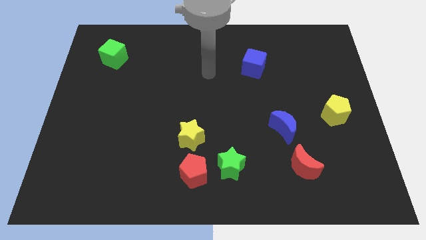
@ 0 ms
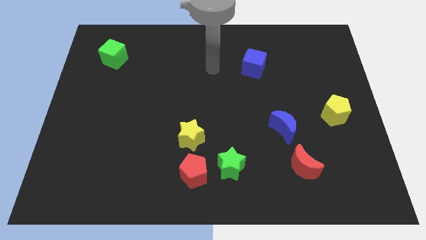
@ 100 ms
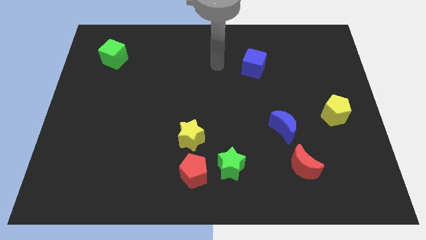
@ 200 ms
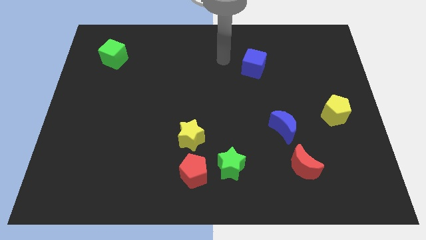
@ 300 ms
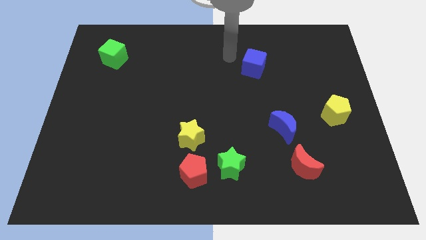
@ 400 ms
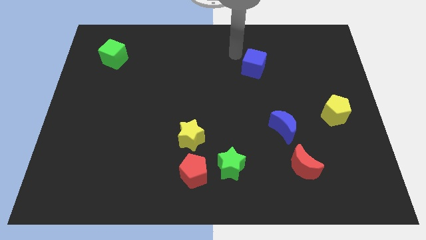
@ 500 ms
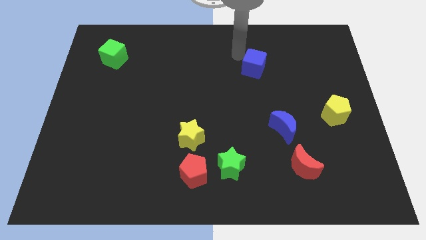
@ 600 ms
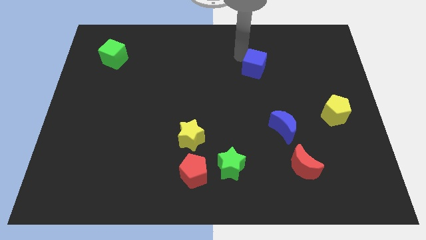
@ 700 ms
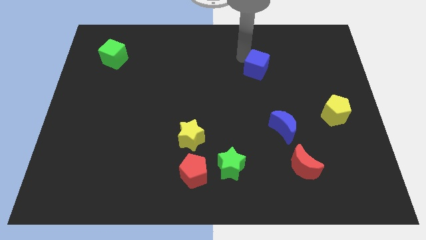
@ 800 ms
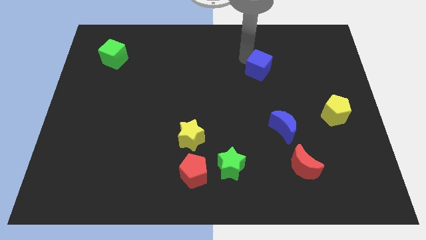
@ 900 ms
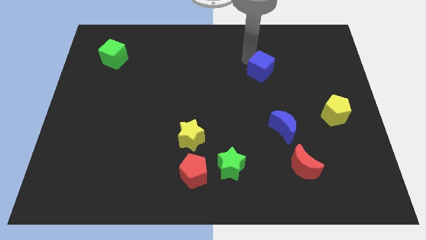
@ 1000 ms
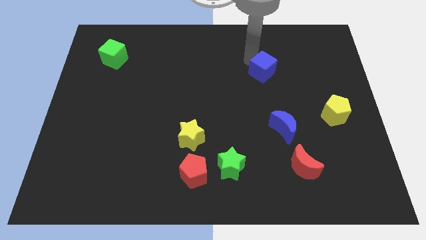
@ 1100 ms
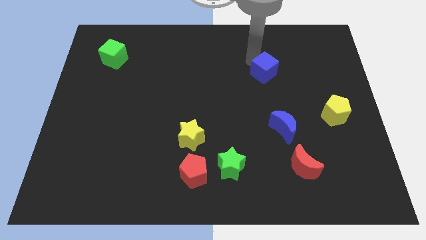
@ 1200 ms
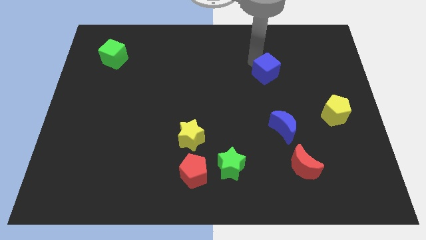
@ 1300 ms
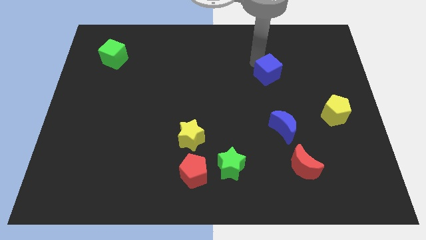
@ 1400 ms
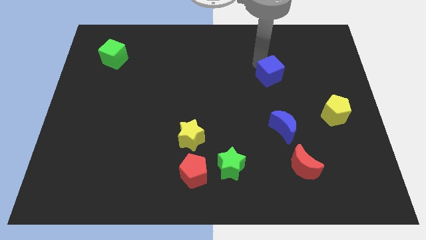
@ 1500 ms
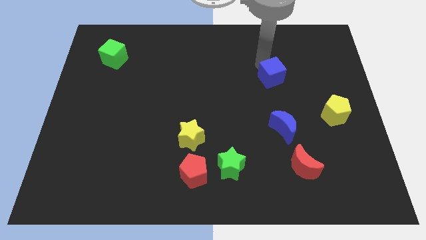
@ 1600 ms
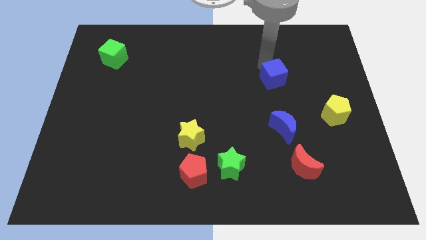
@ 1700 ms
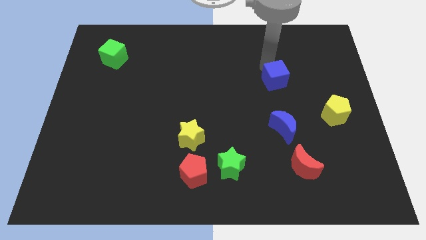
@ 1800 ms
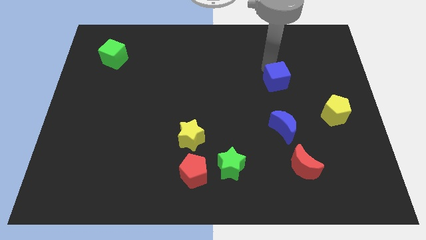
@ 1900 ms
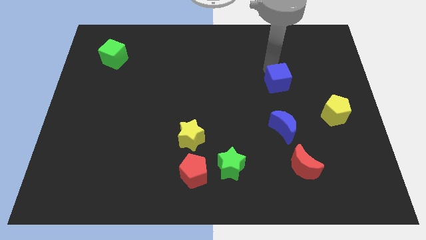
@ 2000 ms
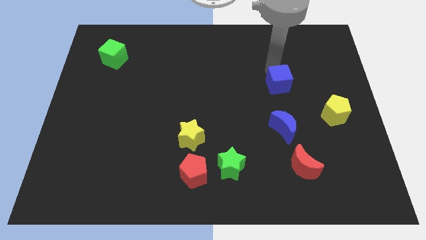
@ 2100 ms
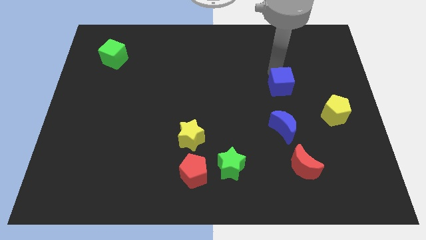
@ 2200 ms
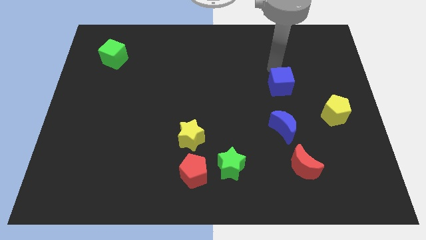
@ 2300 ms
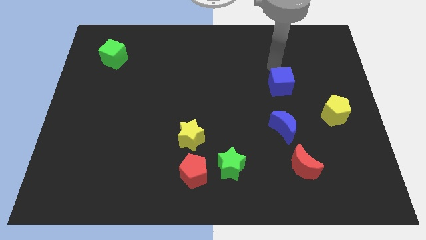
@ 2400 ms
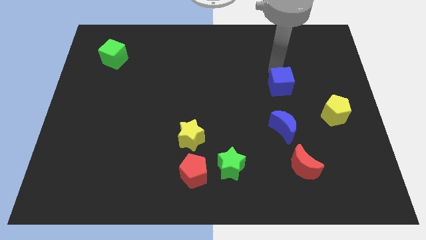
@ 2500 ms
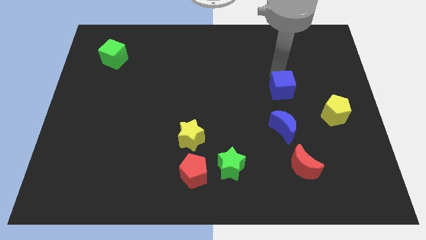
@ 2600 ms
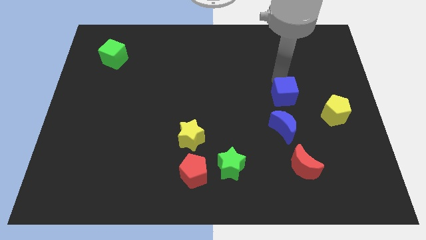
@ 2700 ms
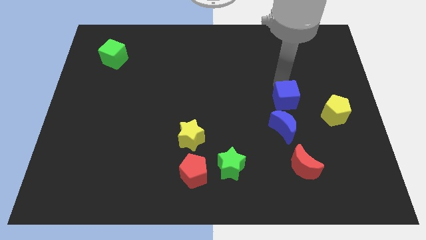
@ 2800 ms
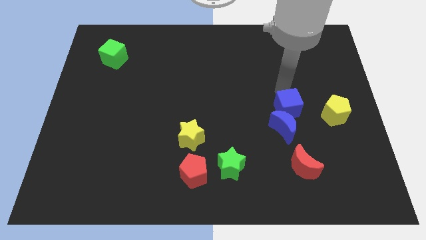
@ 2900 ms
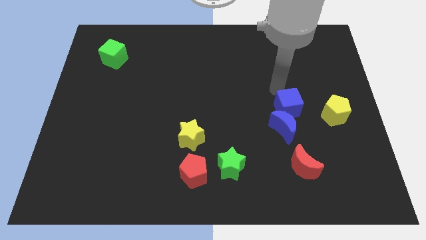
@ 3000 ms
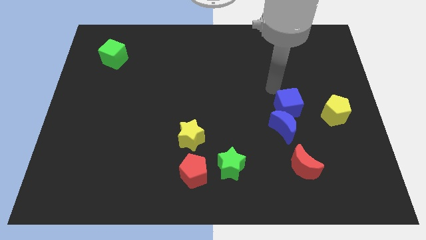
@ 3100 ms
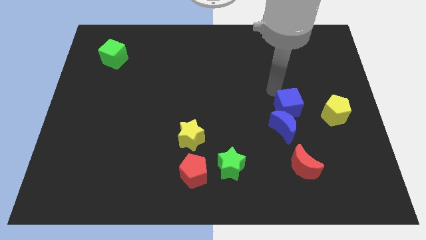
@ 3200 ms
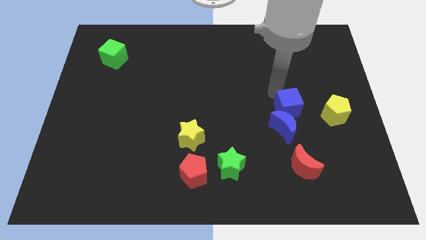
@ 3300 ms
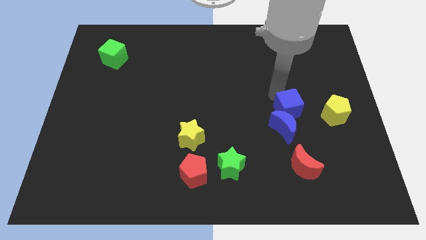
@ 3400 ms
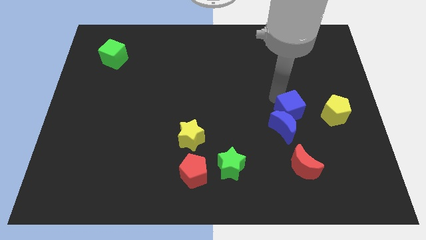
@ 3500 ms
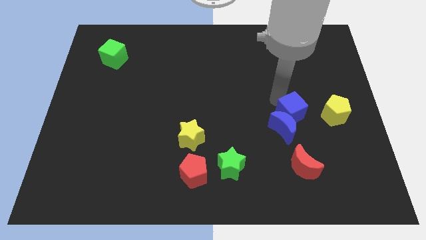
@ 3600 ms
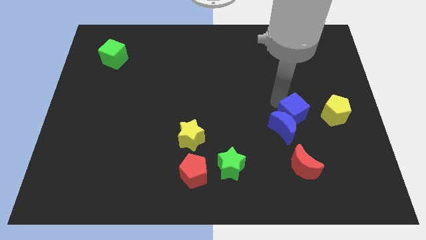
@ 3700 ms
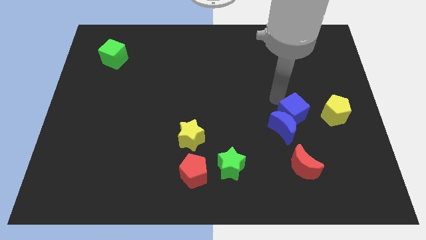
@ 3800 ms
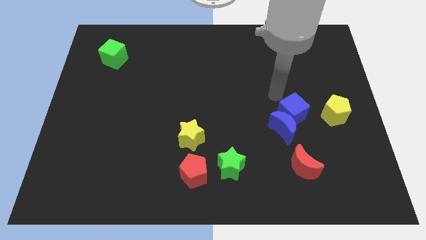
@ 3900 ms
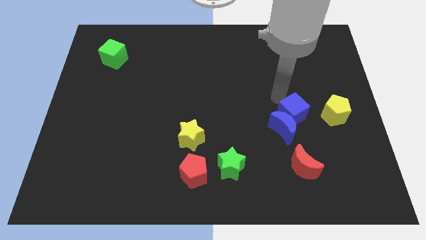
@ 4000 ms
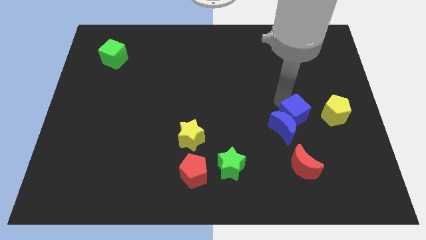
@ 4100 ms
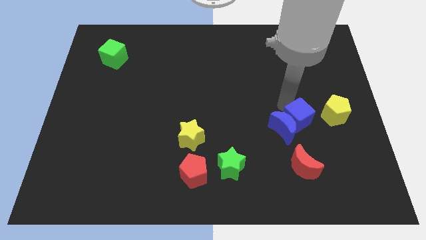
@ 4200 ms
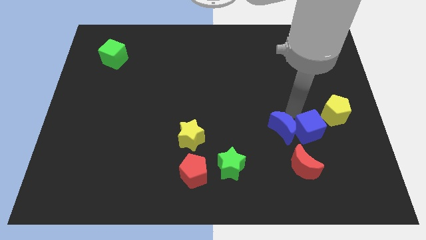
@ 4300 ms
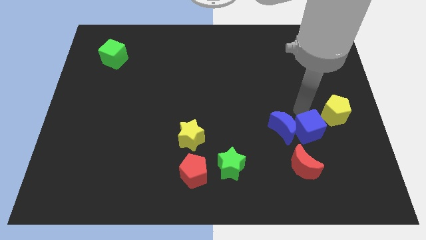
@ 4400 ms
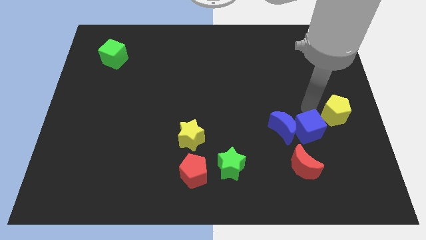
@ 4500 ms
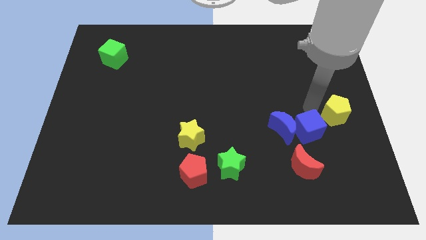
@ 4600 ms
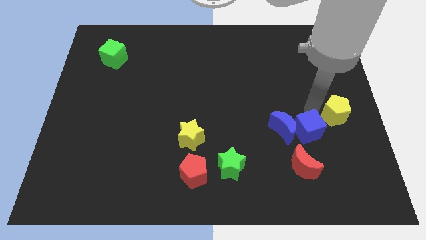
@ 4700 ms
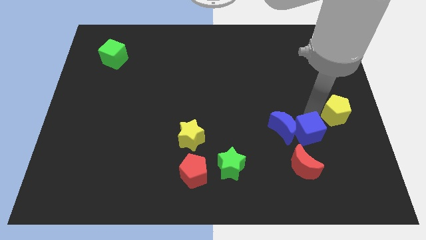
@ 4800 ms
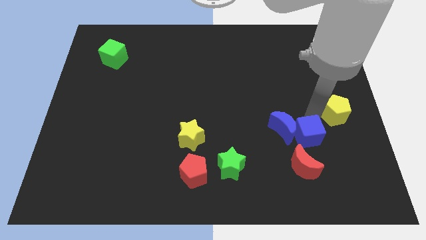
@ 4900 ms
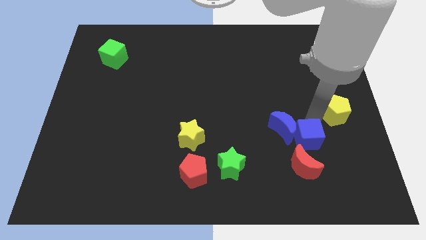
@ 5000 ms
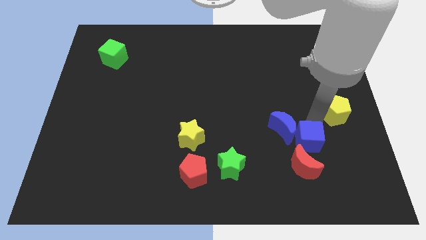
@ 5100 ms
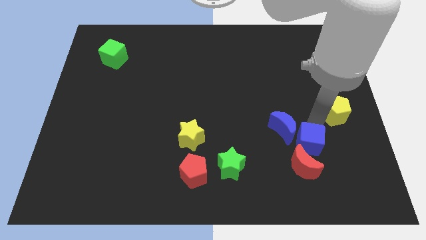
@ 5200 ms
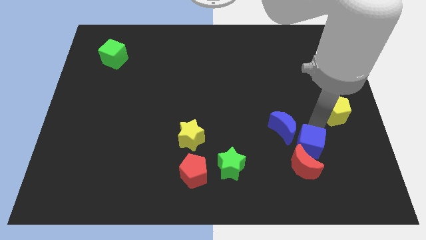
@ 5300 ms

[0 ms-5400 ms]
put the blue cube to the red moon

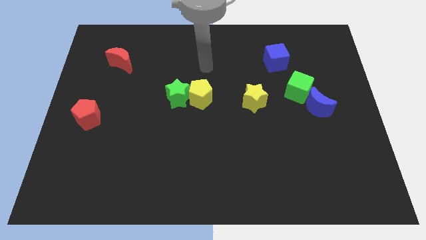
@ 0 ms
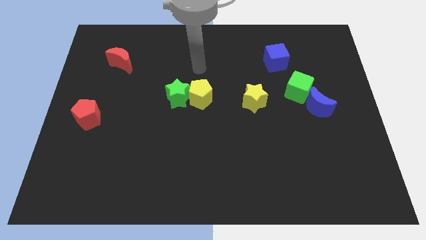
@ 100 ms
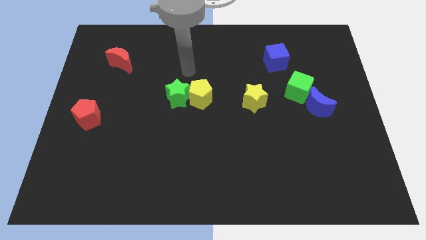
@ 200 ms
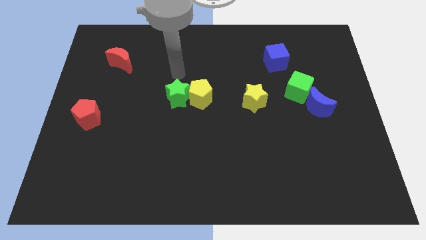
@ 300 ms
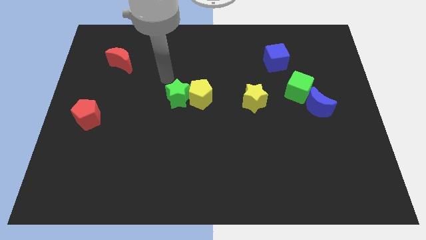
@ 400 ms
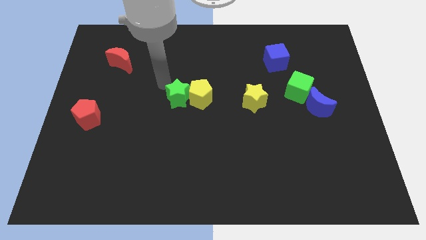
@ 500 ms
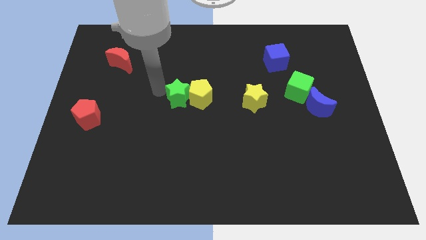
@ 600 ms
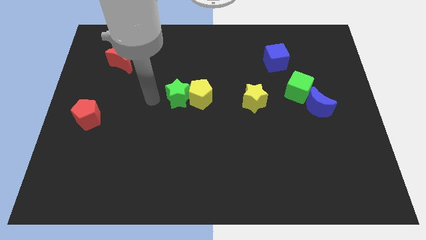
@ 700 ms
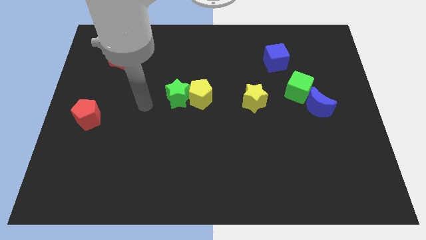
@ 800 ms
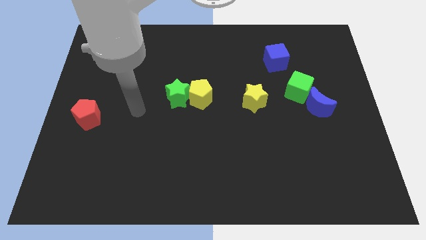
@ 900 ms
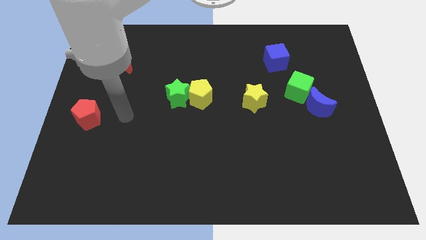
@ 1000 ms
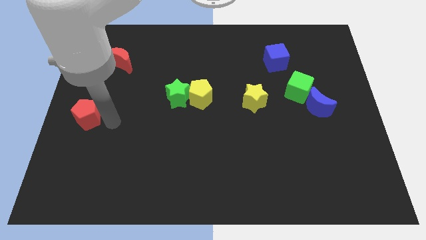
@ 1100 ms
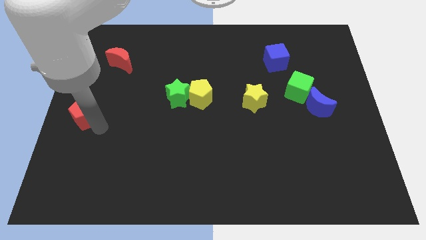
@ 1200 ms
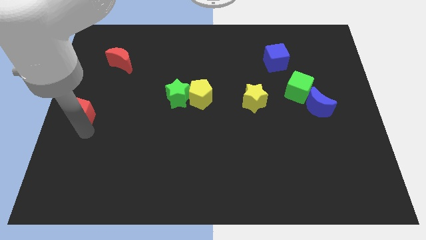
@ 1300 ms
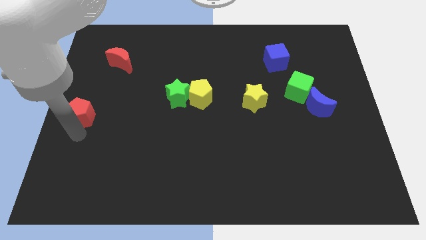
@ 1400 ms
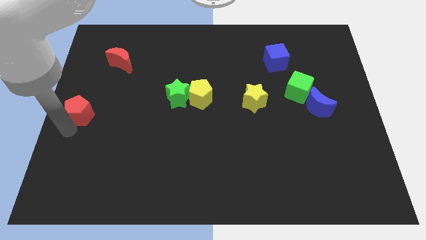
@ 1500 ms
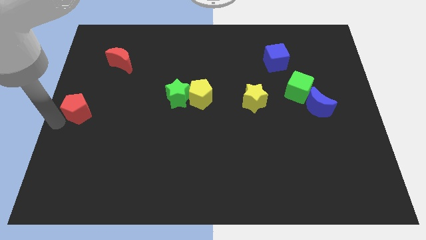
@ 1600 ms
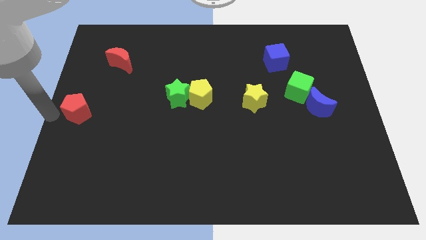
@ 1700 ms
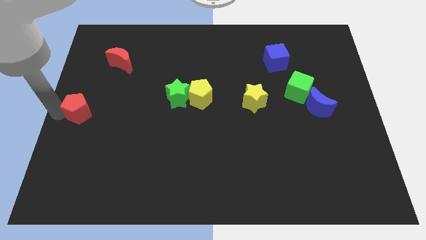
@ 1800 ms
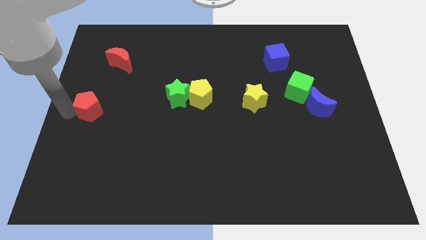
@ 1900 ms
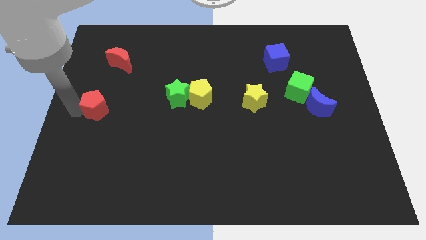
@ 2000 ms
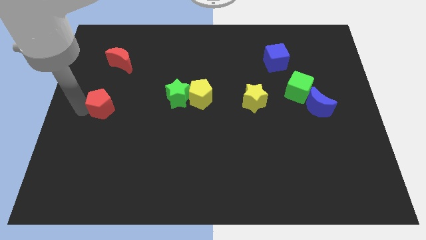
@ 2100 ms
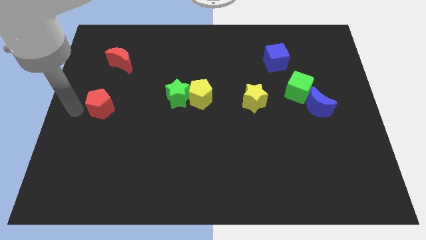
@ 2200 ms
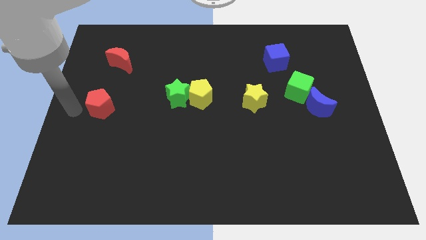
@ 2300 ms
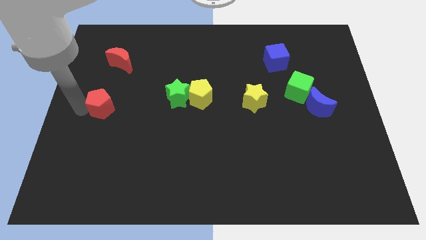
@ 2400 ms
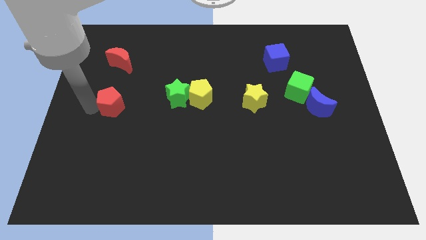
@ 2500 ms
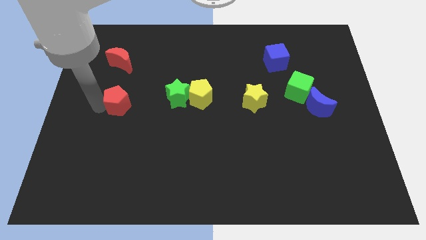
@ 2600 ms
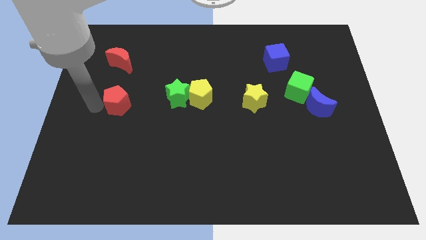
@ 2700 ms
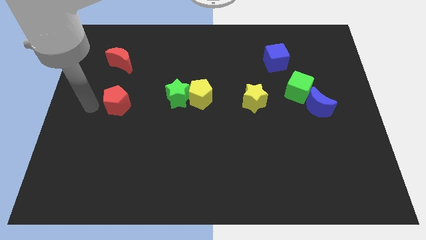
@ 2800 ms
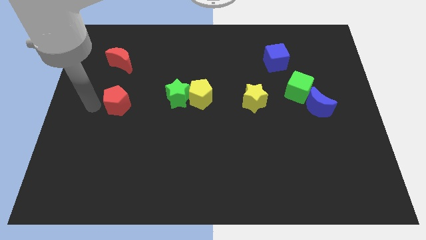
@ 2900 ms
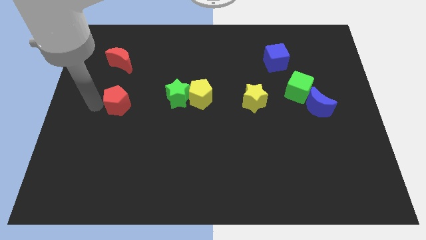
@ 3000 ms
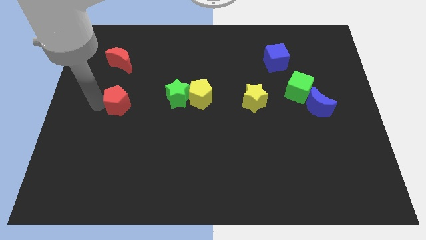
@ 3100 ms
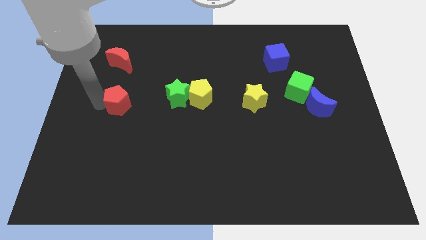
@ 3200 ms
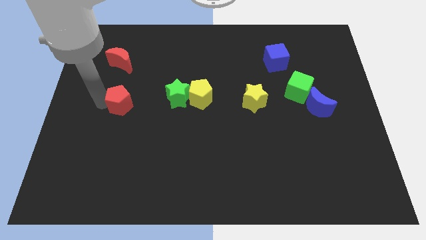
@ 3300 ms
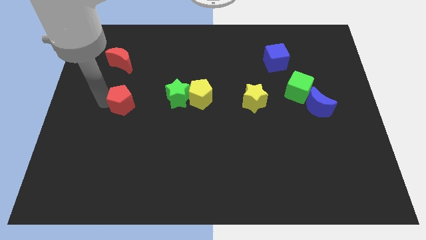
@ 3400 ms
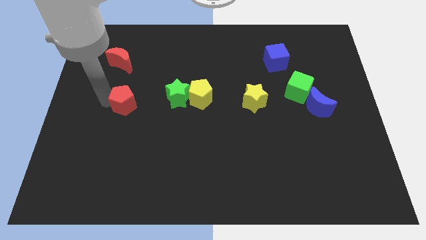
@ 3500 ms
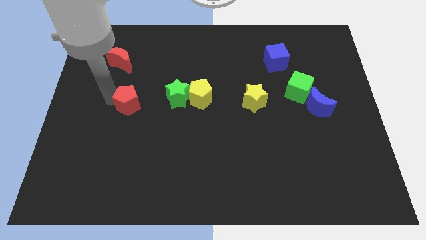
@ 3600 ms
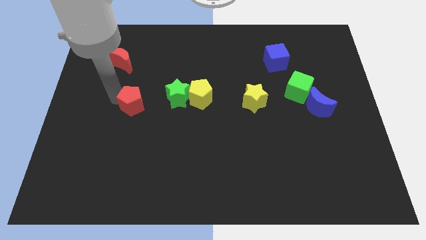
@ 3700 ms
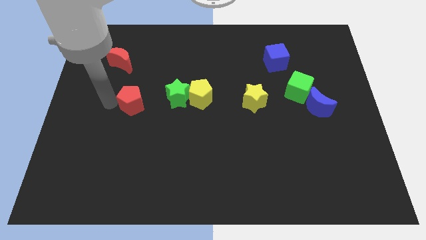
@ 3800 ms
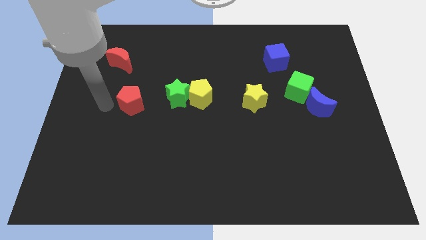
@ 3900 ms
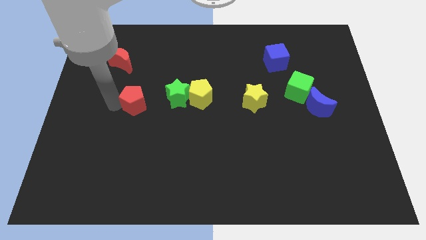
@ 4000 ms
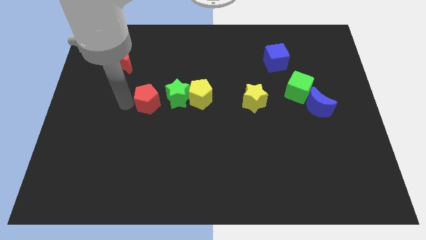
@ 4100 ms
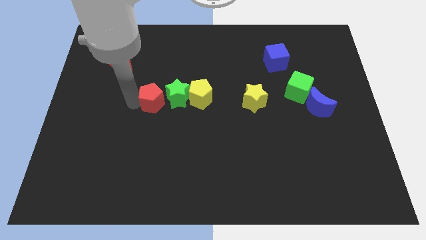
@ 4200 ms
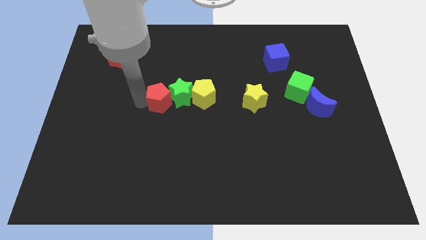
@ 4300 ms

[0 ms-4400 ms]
move the red pentagon next to the green star
